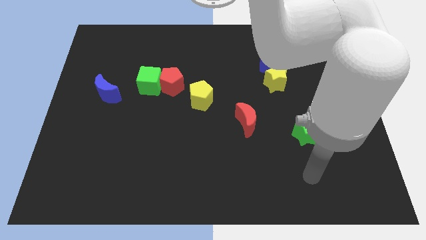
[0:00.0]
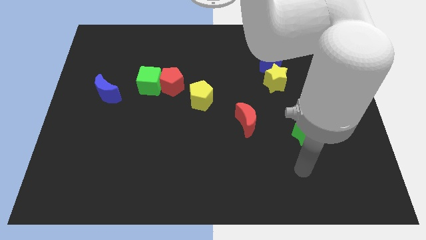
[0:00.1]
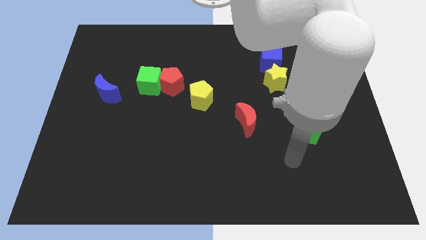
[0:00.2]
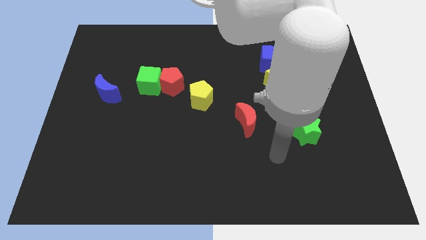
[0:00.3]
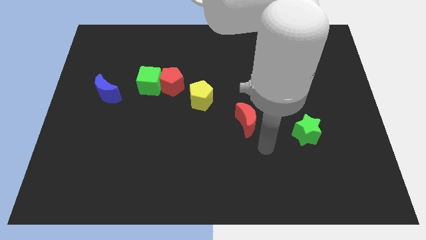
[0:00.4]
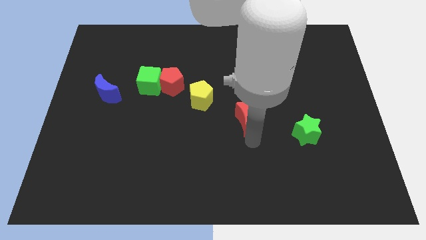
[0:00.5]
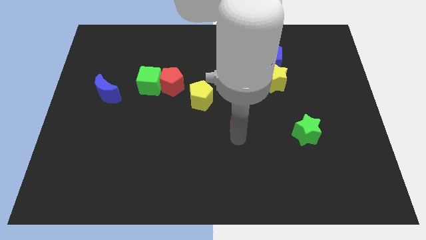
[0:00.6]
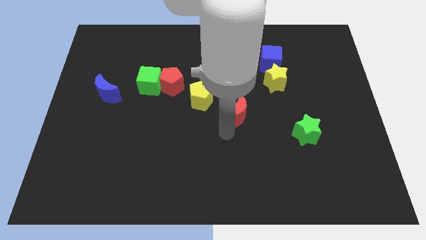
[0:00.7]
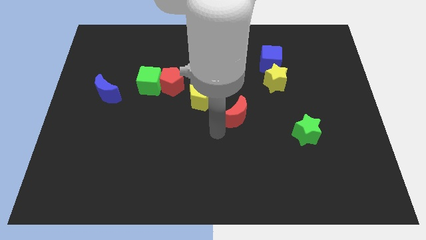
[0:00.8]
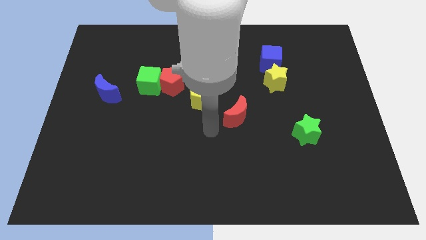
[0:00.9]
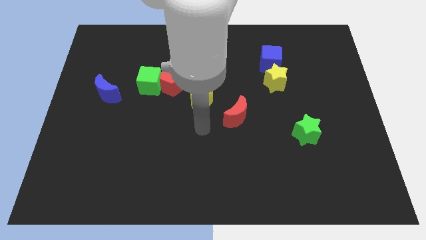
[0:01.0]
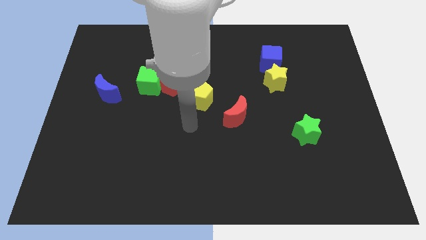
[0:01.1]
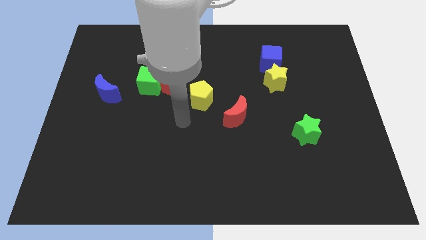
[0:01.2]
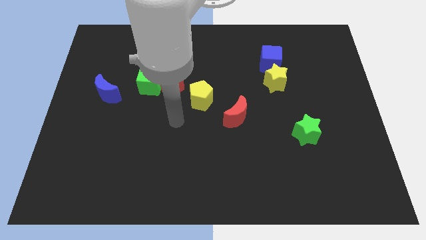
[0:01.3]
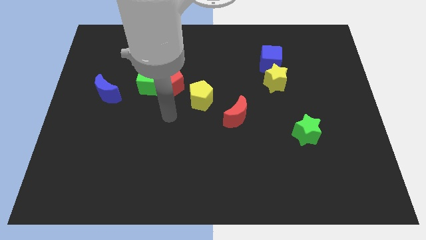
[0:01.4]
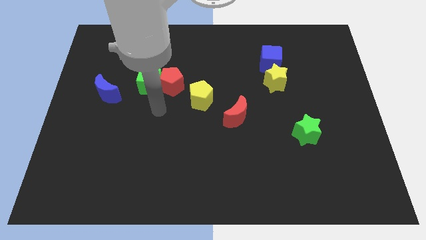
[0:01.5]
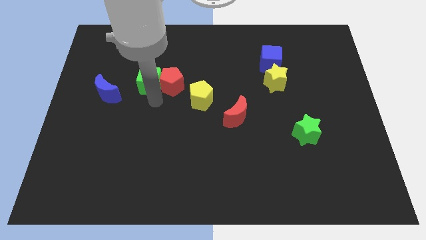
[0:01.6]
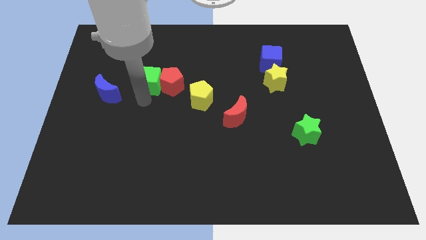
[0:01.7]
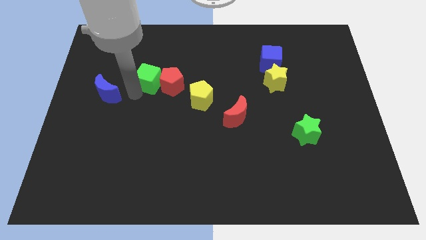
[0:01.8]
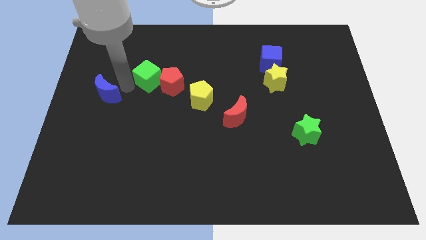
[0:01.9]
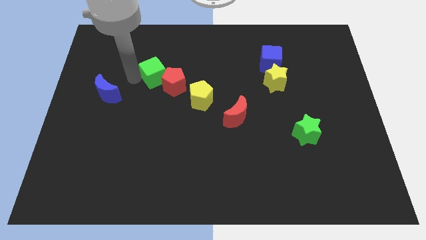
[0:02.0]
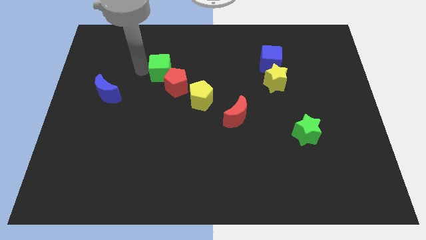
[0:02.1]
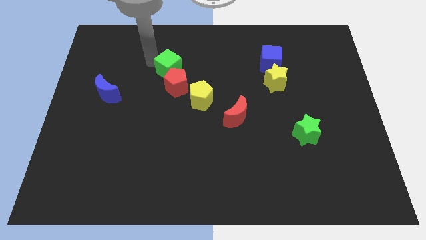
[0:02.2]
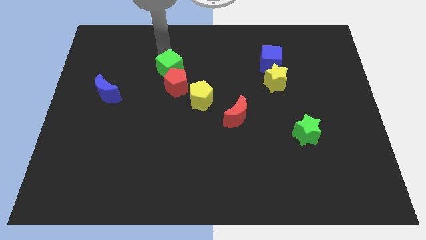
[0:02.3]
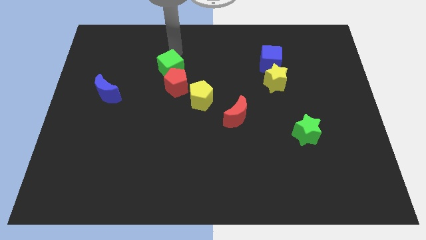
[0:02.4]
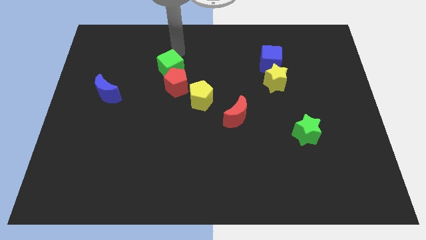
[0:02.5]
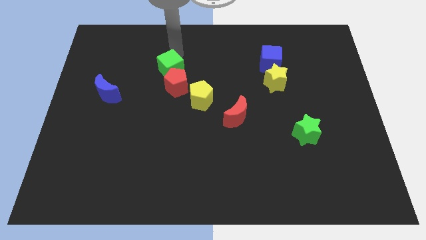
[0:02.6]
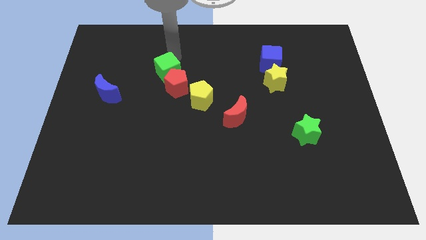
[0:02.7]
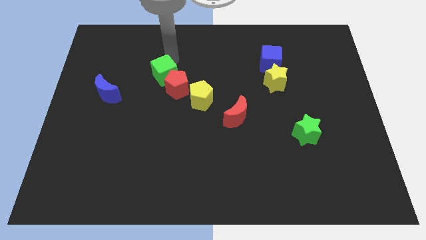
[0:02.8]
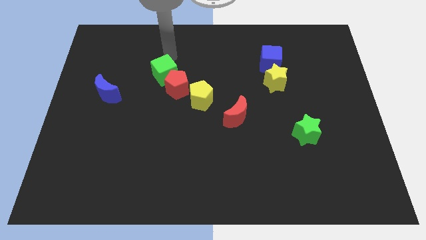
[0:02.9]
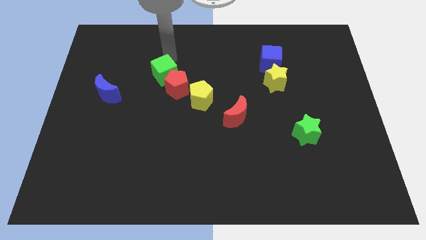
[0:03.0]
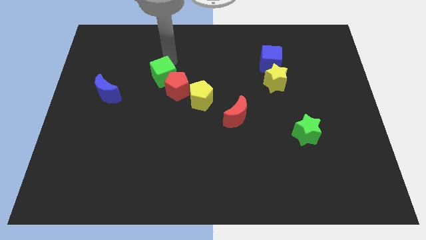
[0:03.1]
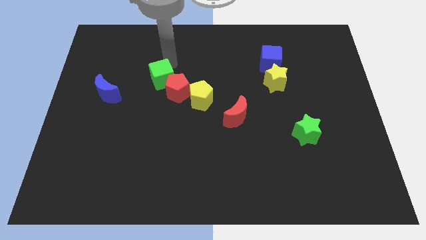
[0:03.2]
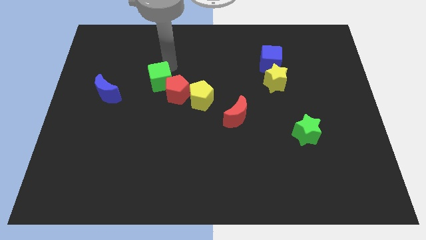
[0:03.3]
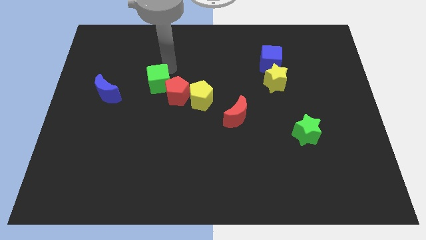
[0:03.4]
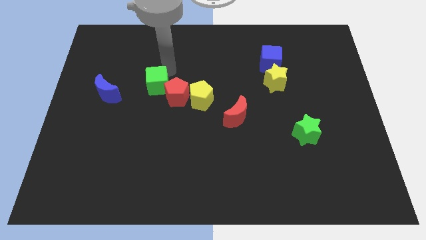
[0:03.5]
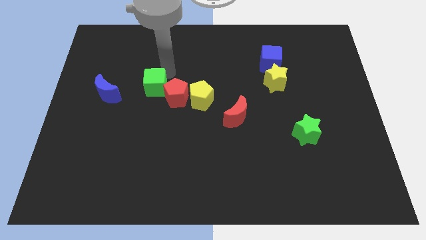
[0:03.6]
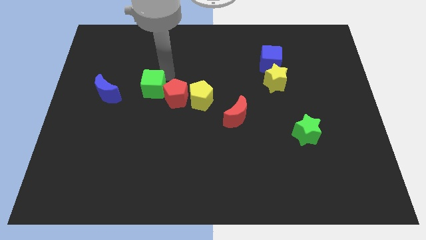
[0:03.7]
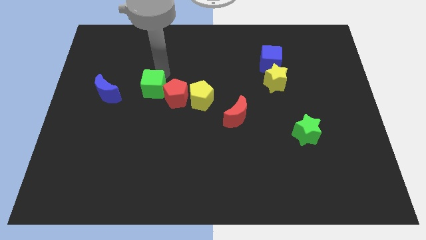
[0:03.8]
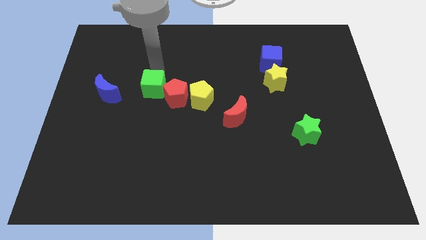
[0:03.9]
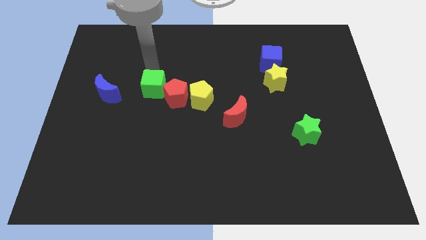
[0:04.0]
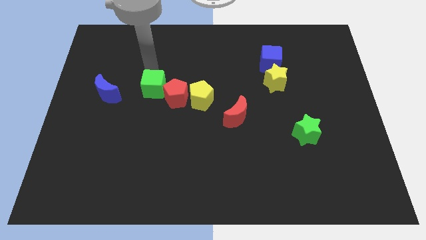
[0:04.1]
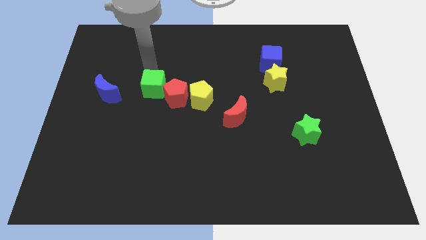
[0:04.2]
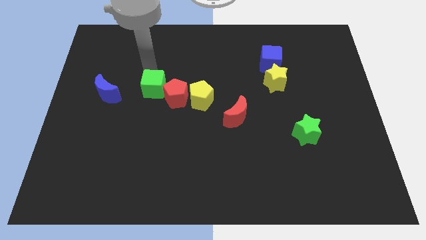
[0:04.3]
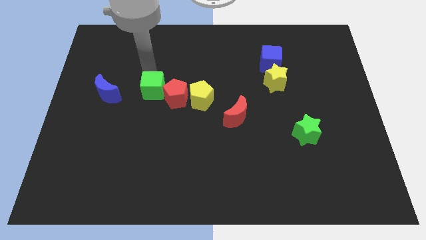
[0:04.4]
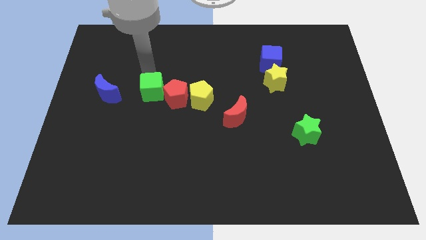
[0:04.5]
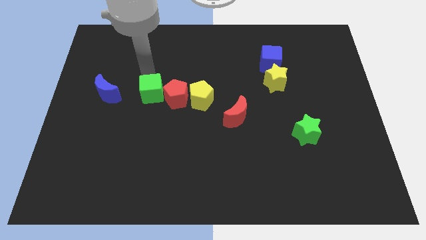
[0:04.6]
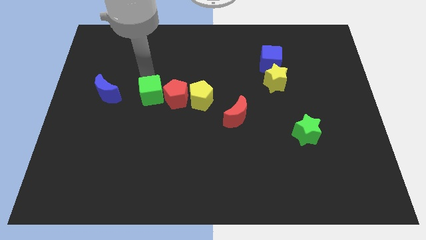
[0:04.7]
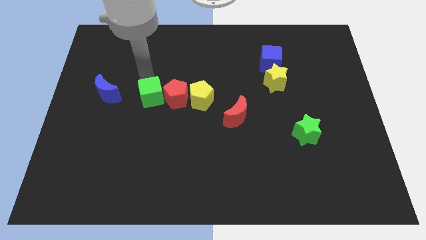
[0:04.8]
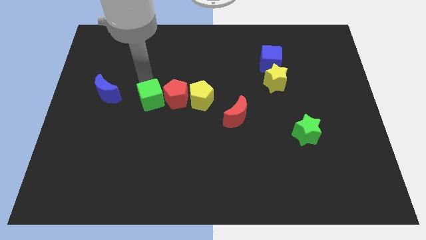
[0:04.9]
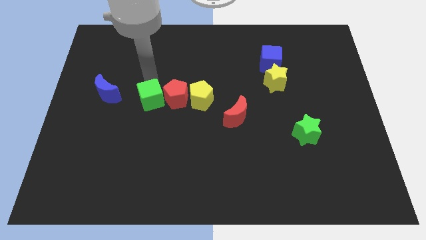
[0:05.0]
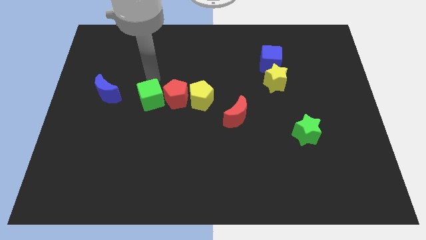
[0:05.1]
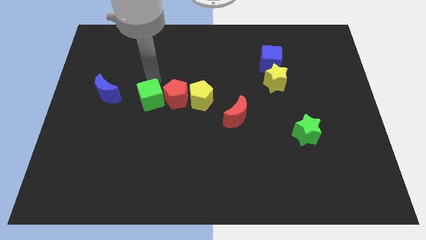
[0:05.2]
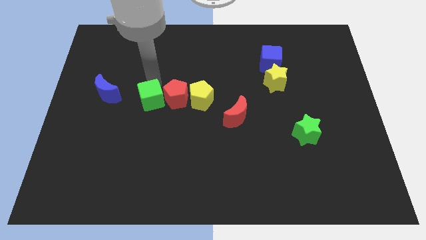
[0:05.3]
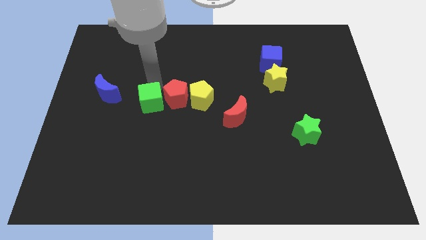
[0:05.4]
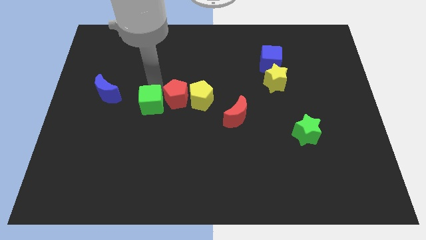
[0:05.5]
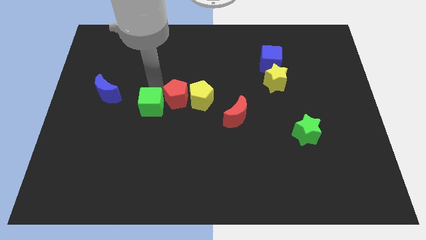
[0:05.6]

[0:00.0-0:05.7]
slightly slide the green cube down

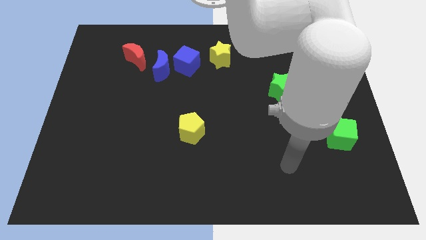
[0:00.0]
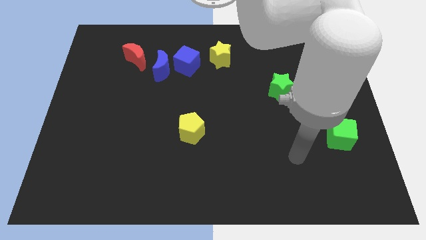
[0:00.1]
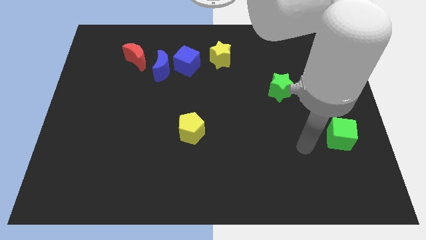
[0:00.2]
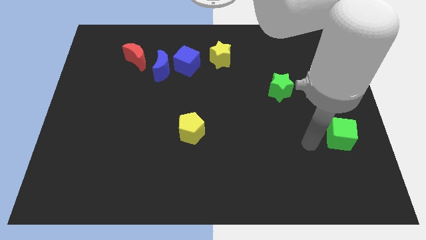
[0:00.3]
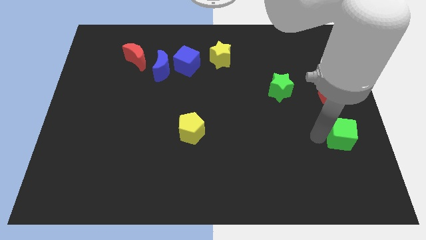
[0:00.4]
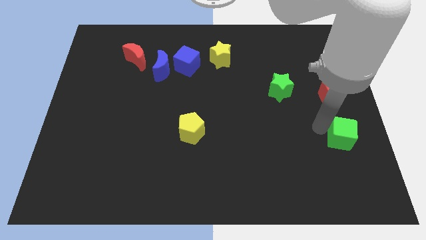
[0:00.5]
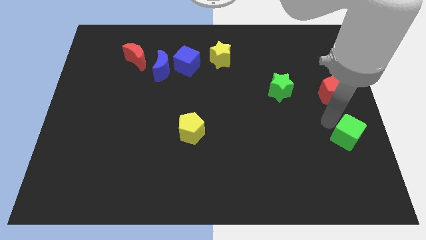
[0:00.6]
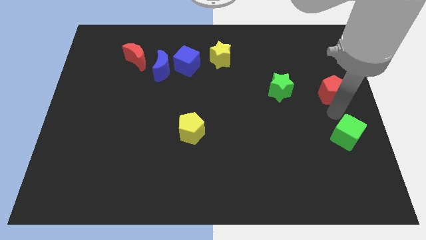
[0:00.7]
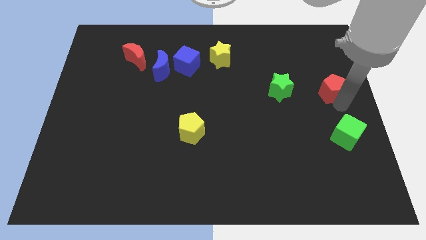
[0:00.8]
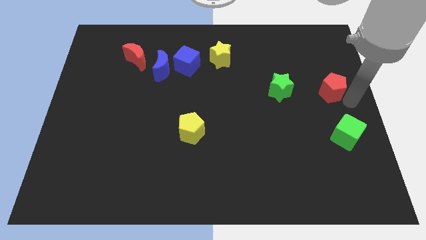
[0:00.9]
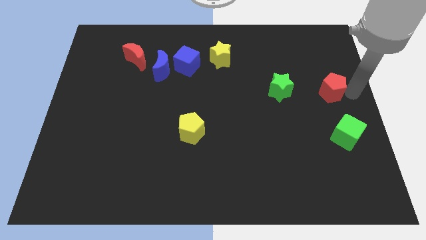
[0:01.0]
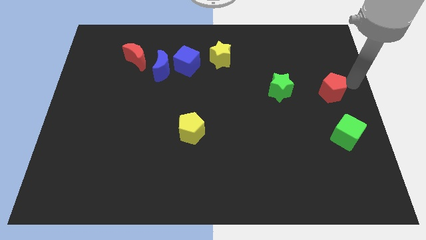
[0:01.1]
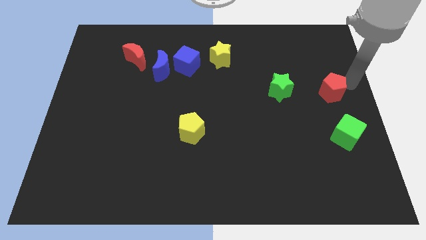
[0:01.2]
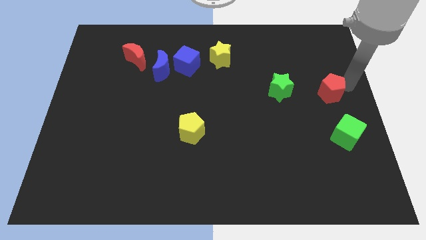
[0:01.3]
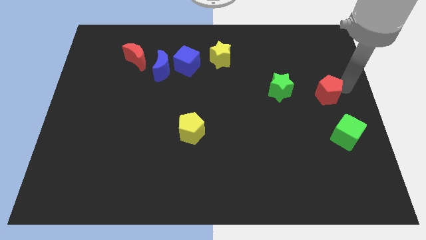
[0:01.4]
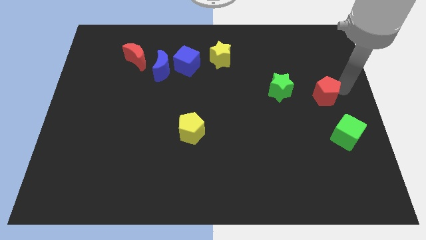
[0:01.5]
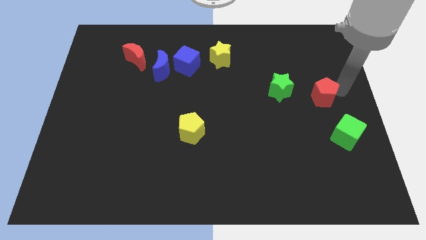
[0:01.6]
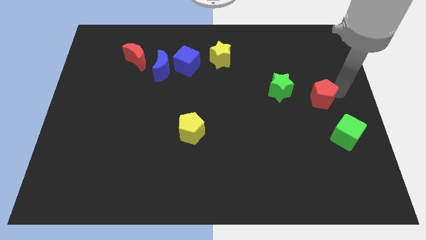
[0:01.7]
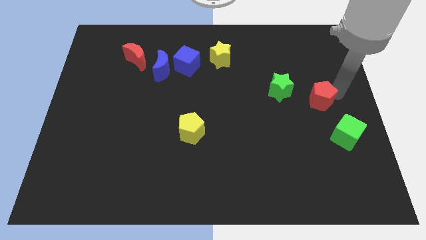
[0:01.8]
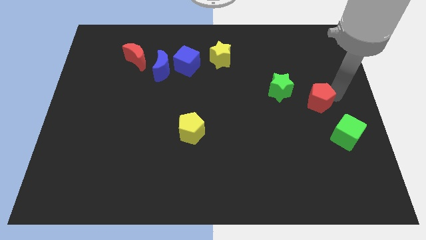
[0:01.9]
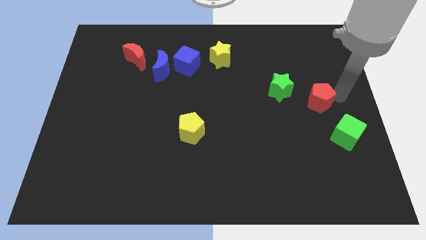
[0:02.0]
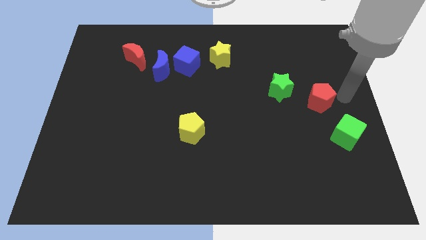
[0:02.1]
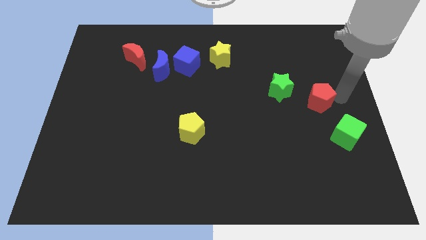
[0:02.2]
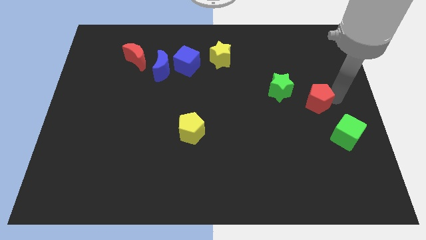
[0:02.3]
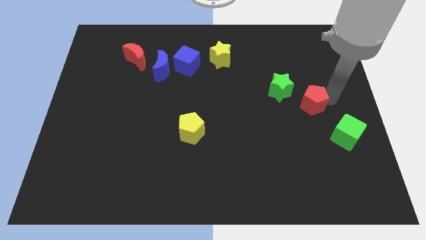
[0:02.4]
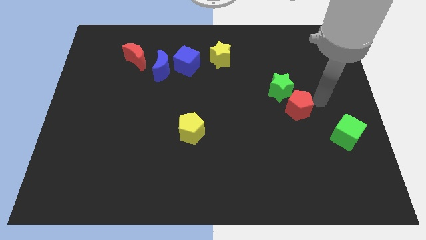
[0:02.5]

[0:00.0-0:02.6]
push the red pentagon left a bit
